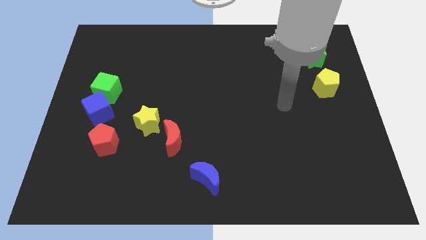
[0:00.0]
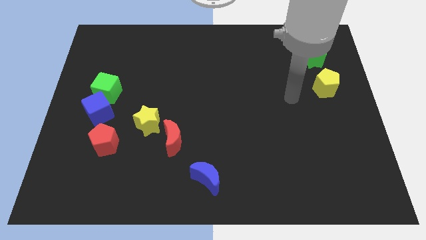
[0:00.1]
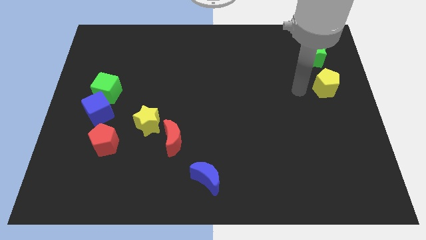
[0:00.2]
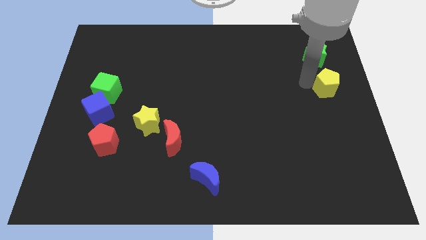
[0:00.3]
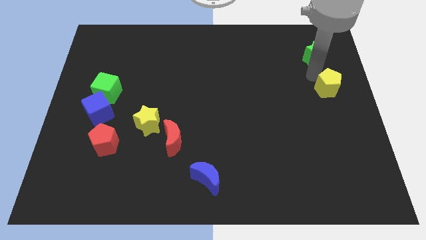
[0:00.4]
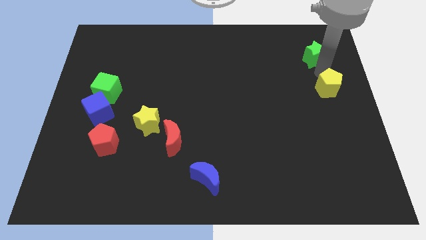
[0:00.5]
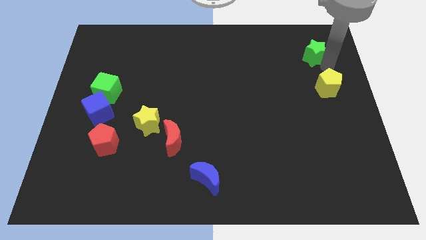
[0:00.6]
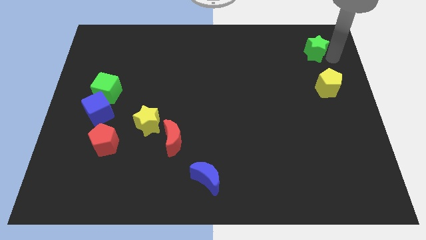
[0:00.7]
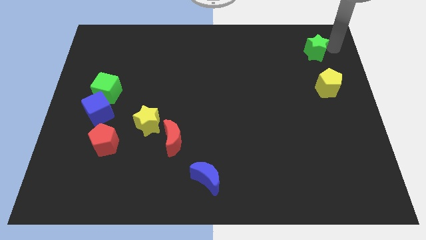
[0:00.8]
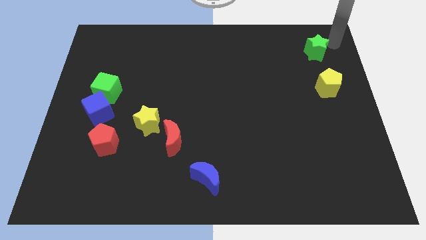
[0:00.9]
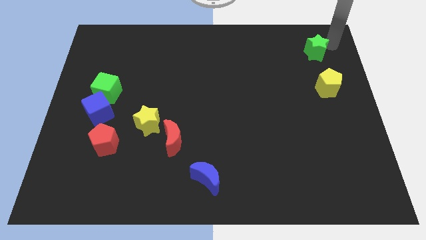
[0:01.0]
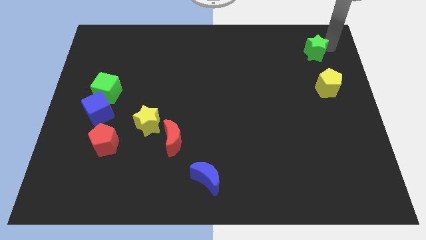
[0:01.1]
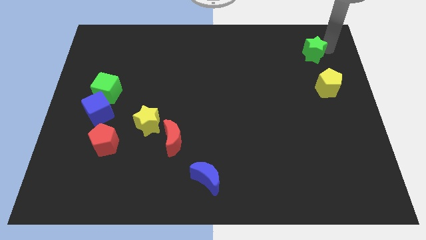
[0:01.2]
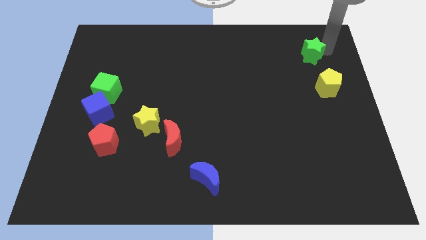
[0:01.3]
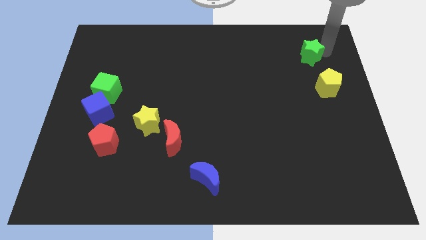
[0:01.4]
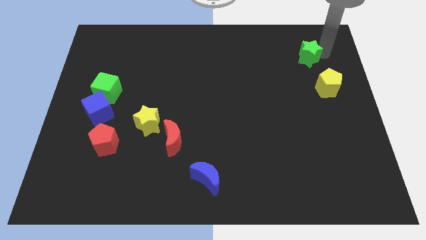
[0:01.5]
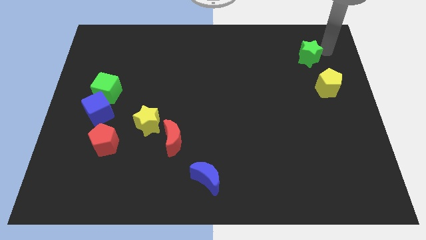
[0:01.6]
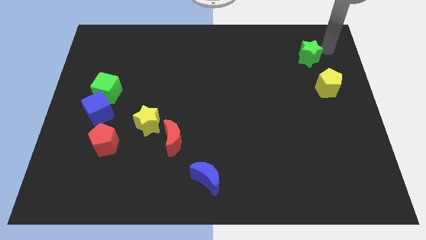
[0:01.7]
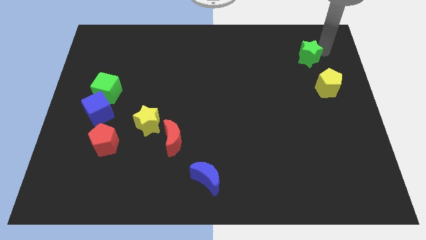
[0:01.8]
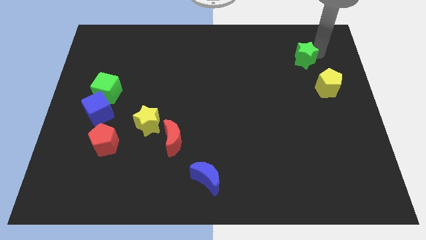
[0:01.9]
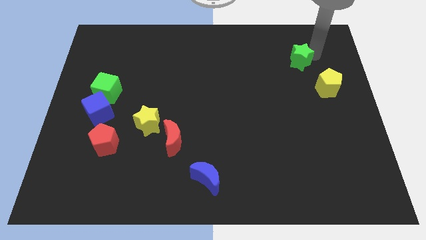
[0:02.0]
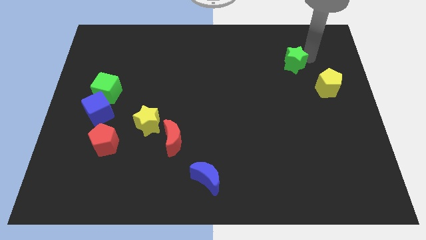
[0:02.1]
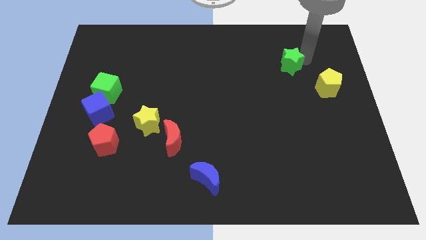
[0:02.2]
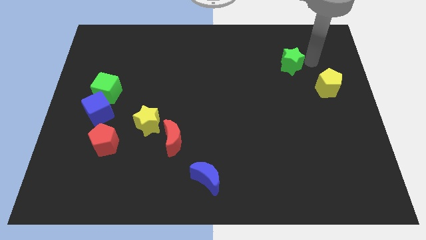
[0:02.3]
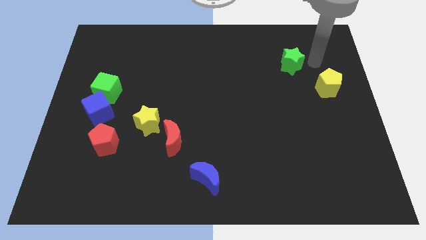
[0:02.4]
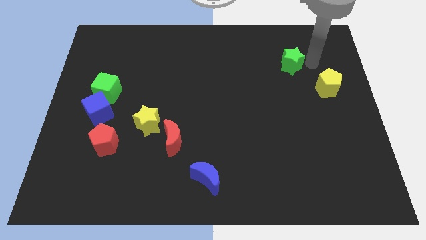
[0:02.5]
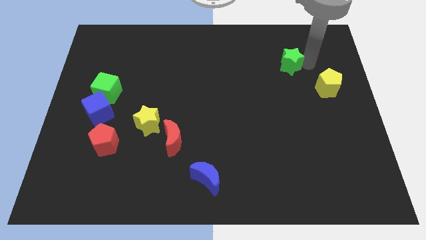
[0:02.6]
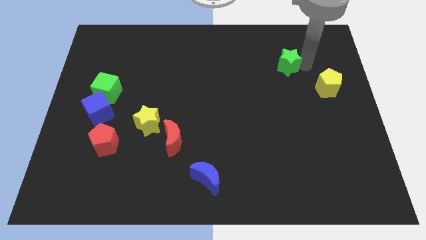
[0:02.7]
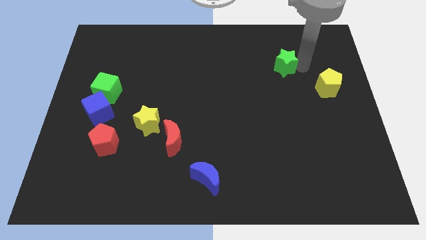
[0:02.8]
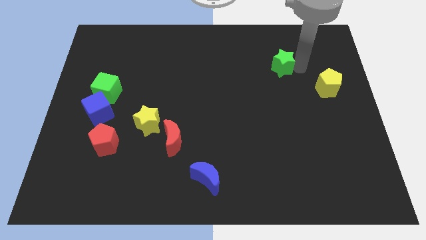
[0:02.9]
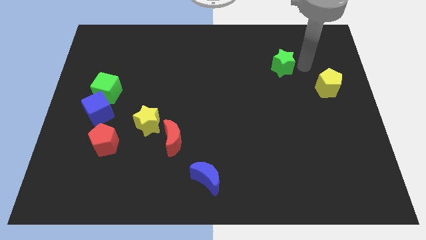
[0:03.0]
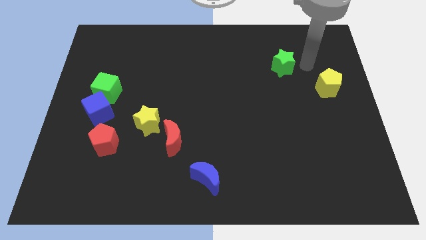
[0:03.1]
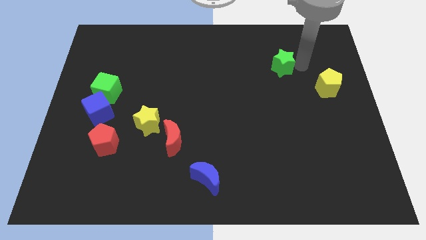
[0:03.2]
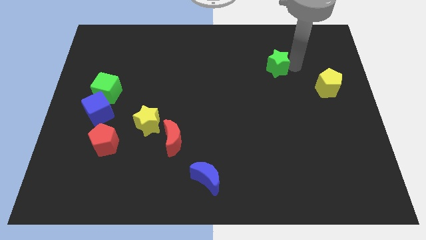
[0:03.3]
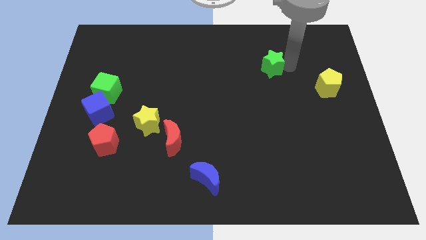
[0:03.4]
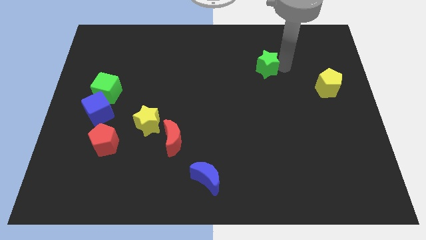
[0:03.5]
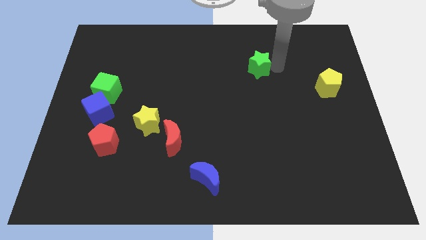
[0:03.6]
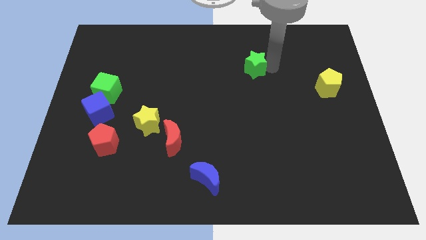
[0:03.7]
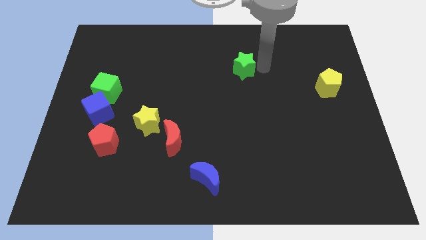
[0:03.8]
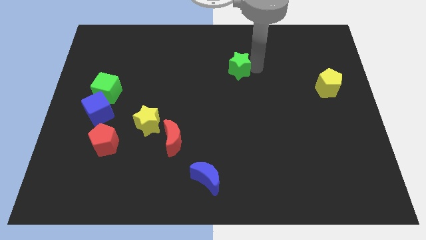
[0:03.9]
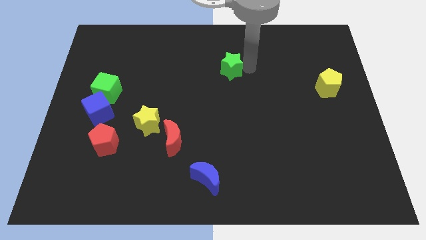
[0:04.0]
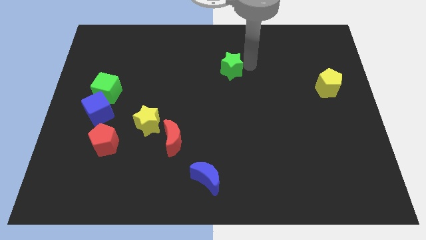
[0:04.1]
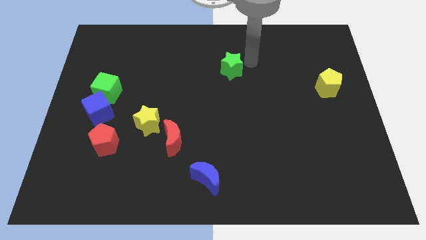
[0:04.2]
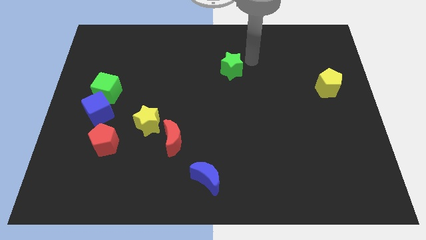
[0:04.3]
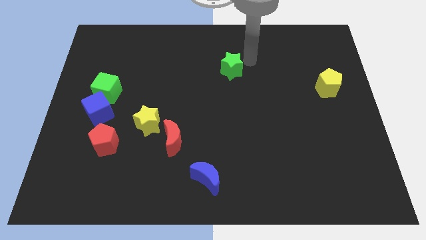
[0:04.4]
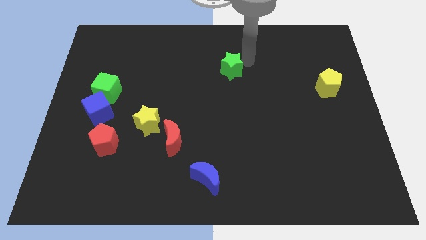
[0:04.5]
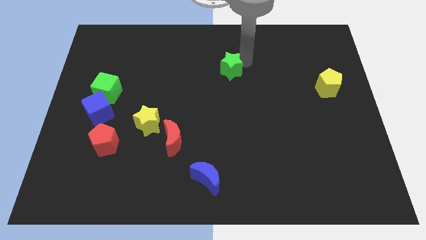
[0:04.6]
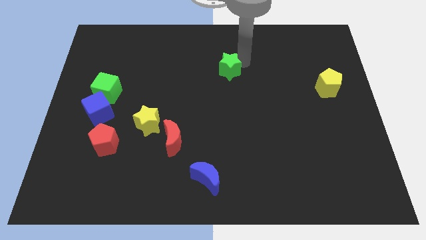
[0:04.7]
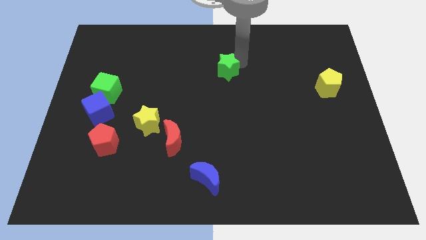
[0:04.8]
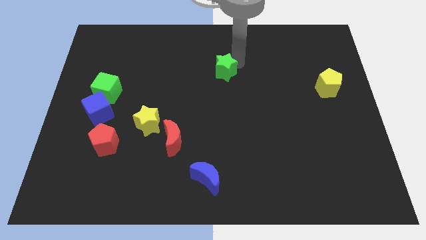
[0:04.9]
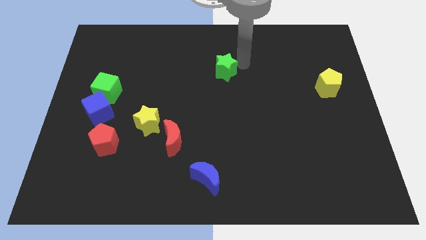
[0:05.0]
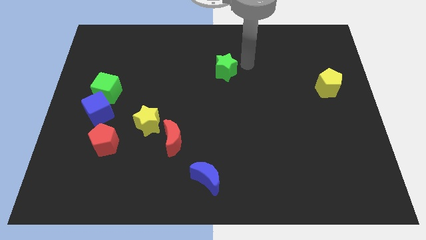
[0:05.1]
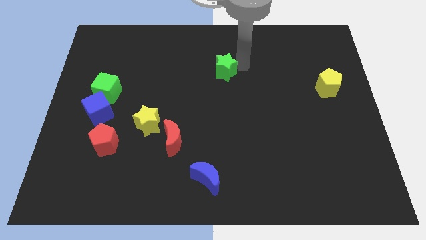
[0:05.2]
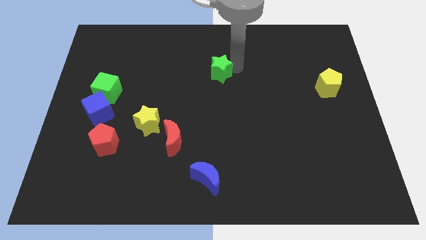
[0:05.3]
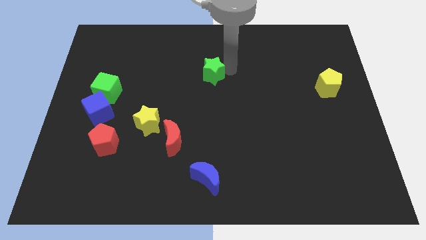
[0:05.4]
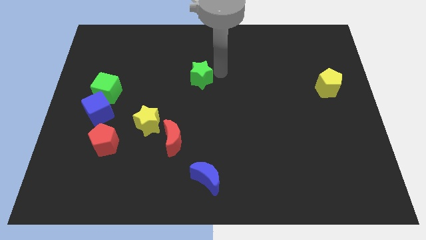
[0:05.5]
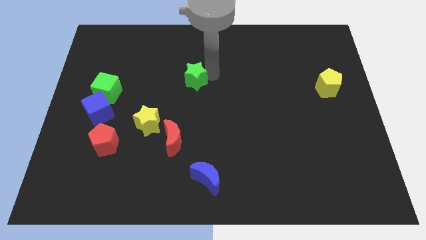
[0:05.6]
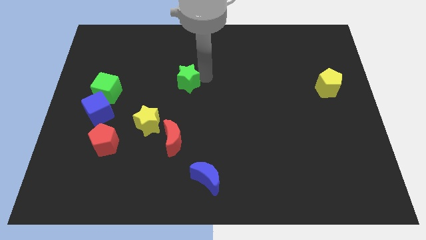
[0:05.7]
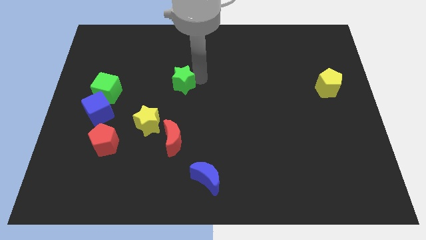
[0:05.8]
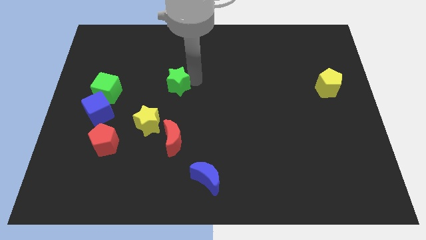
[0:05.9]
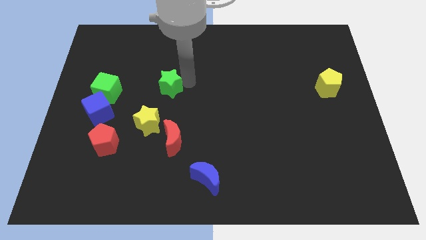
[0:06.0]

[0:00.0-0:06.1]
move the green star just right of the green cube

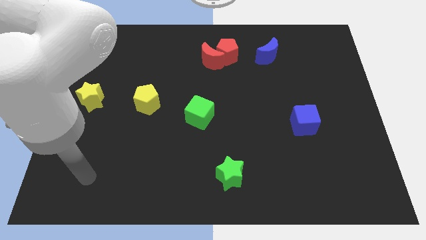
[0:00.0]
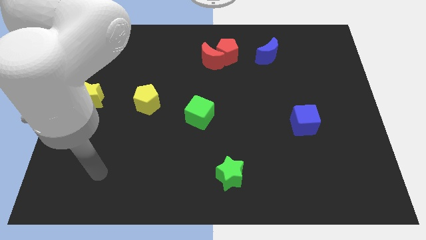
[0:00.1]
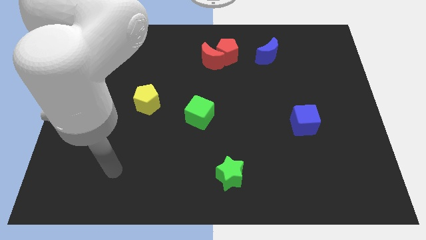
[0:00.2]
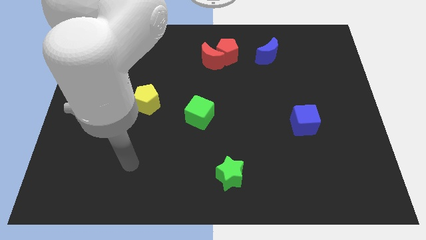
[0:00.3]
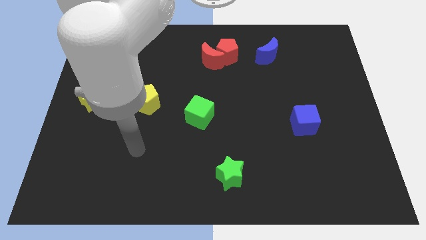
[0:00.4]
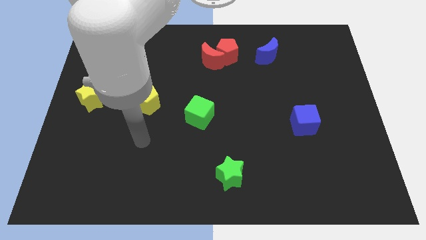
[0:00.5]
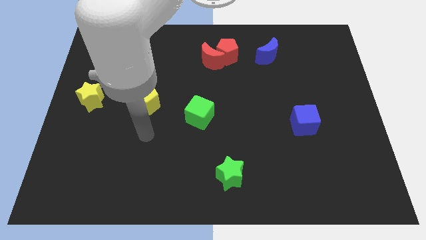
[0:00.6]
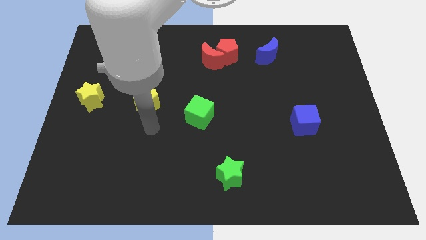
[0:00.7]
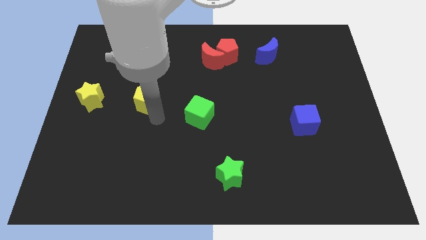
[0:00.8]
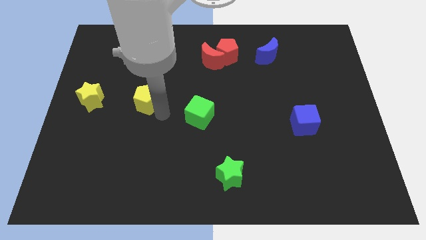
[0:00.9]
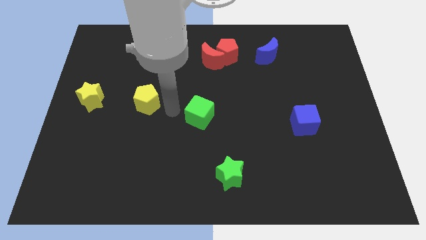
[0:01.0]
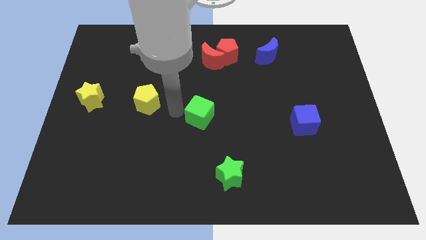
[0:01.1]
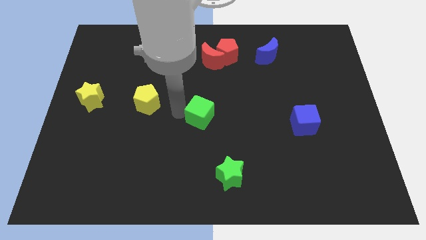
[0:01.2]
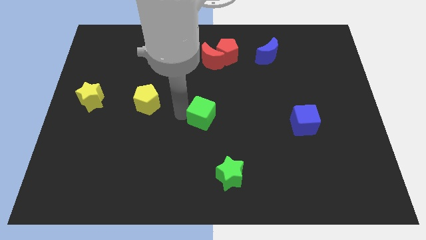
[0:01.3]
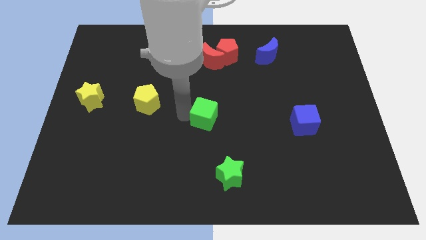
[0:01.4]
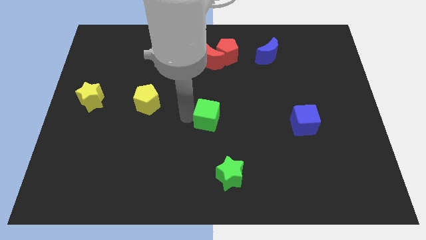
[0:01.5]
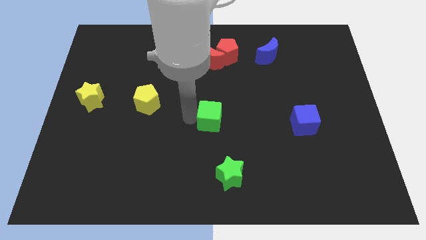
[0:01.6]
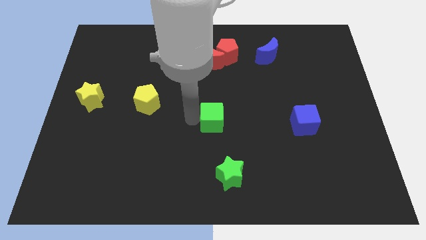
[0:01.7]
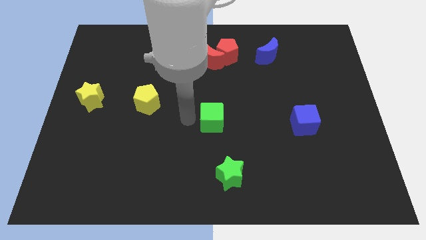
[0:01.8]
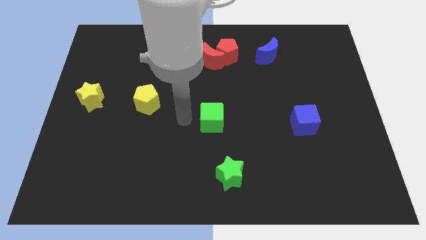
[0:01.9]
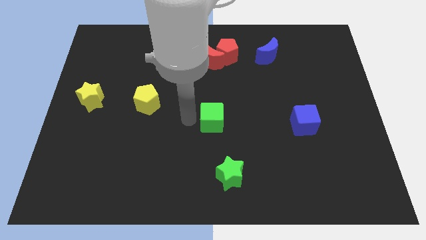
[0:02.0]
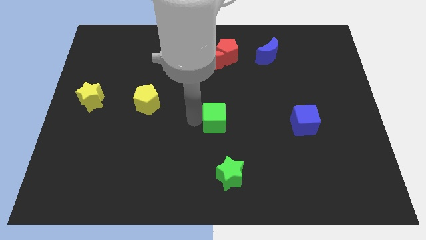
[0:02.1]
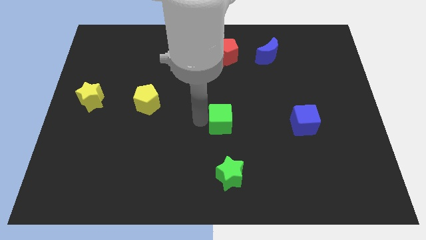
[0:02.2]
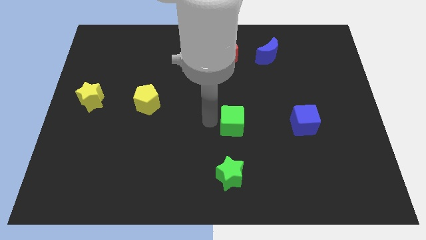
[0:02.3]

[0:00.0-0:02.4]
move the green cube just left of the blue cube
